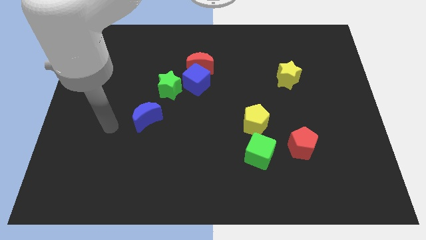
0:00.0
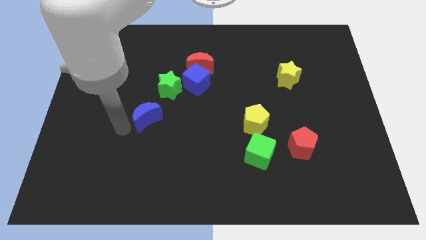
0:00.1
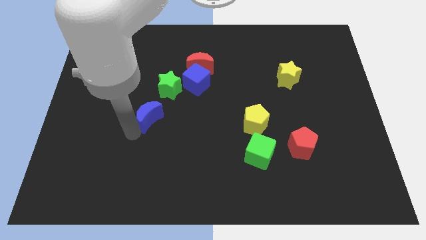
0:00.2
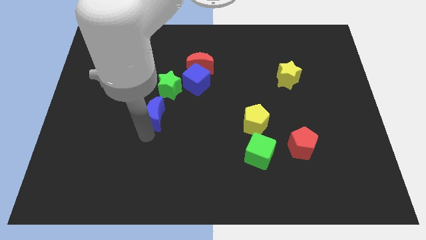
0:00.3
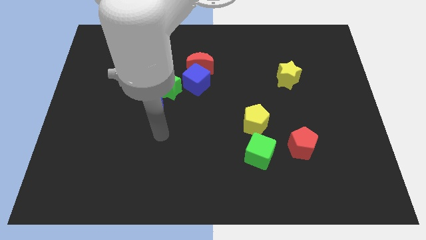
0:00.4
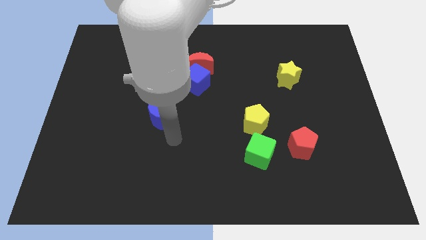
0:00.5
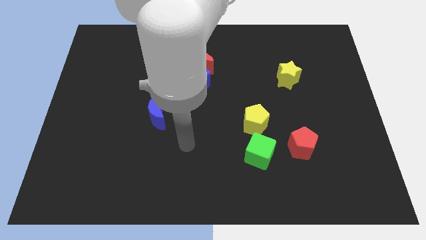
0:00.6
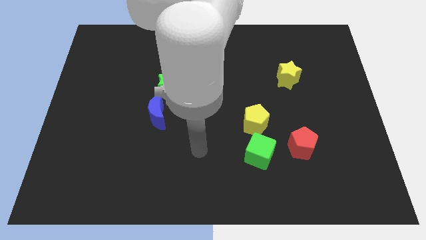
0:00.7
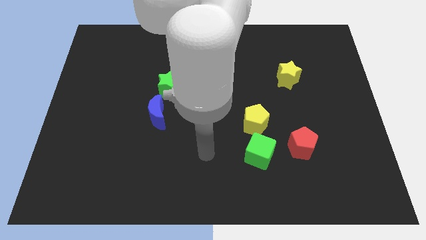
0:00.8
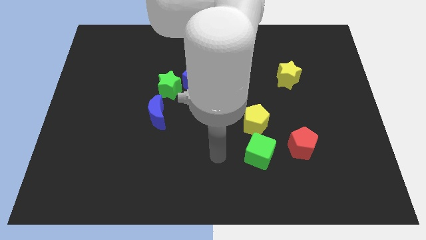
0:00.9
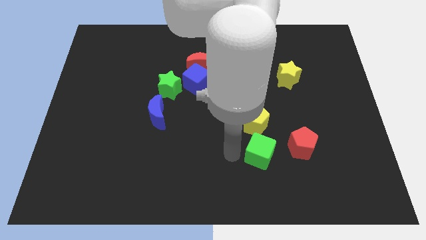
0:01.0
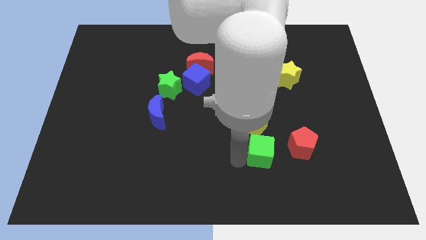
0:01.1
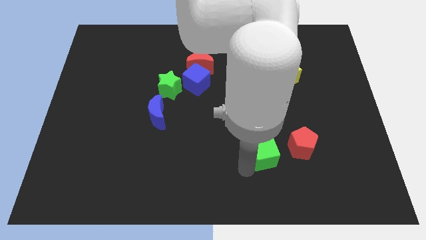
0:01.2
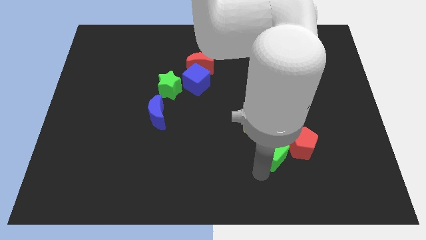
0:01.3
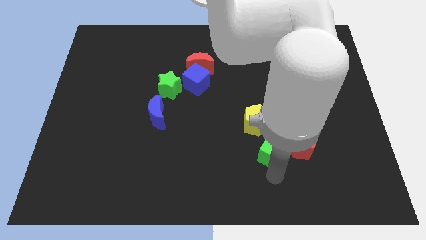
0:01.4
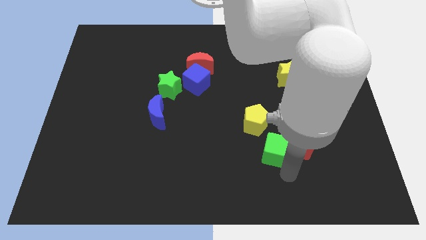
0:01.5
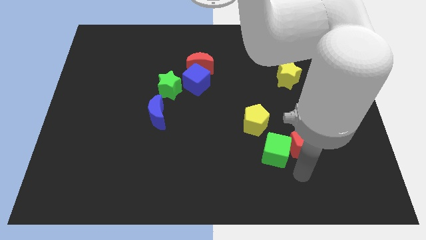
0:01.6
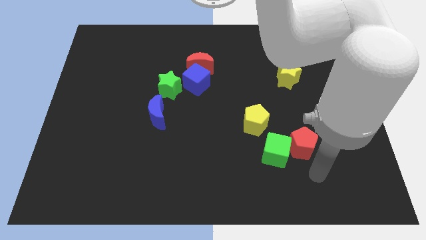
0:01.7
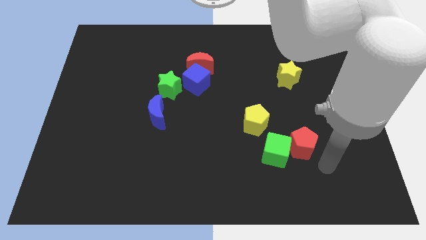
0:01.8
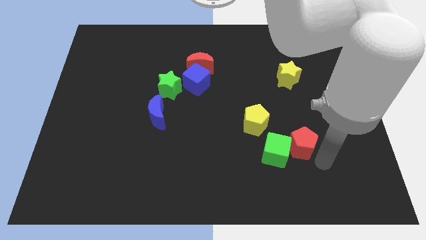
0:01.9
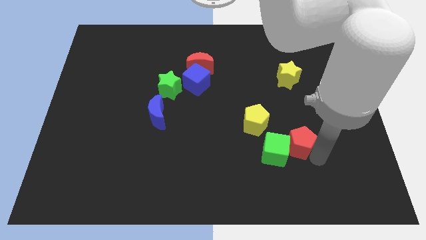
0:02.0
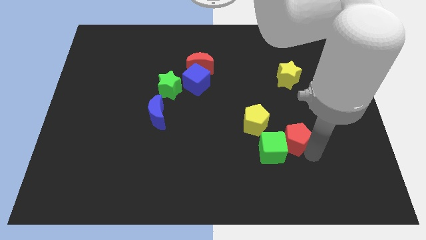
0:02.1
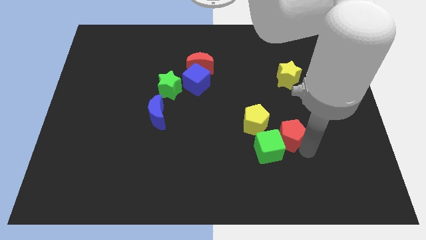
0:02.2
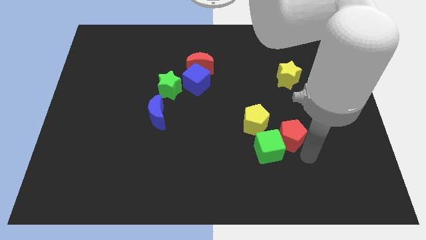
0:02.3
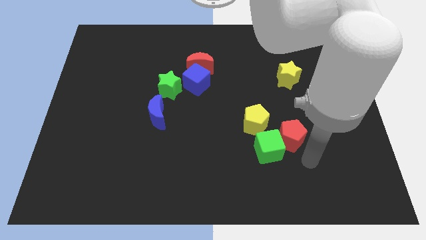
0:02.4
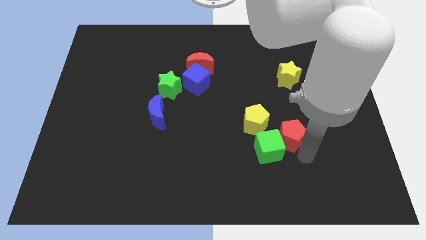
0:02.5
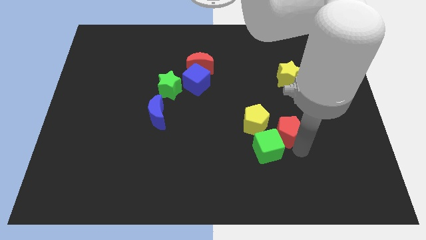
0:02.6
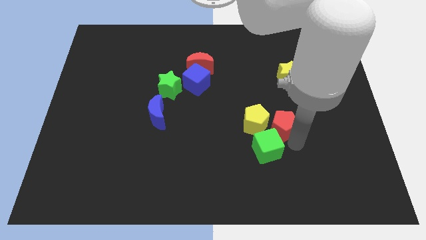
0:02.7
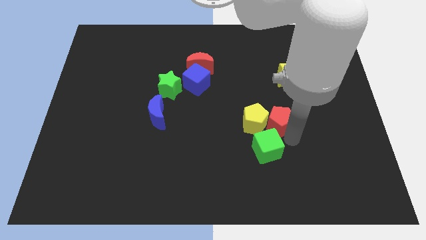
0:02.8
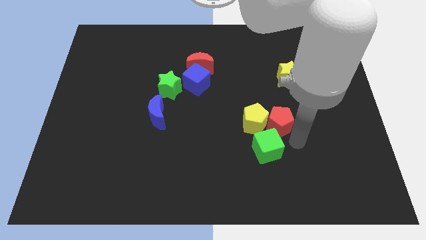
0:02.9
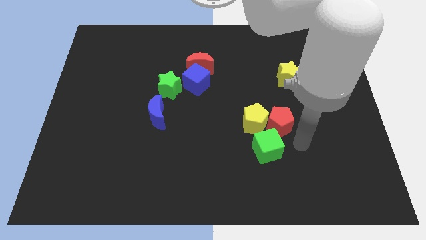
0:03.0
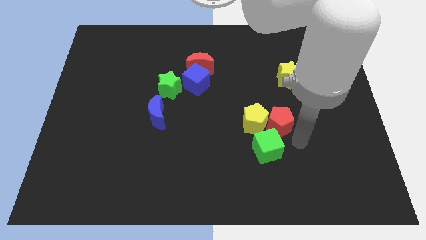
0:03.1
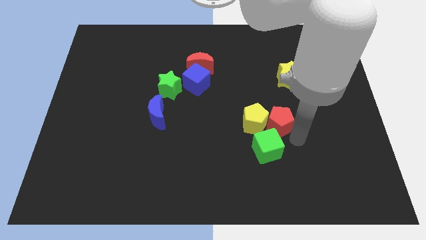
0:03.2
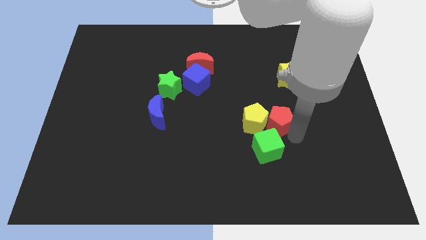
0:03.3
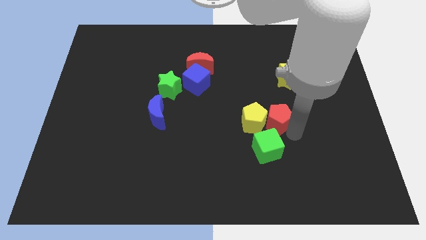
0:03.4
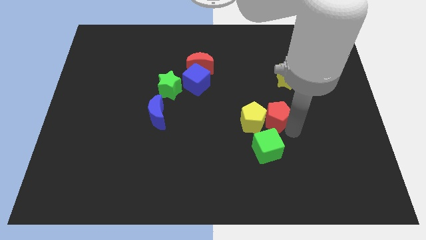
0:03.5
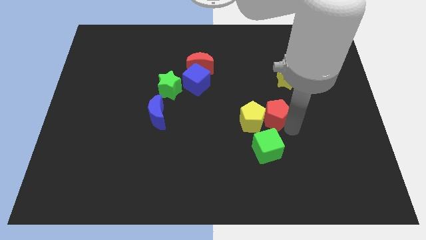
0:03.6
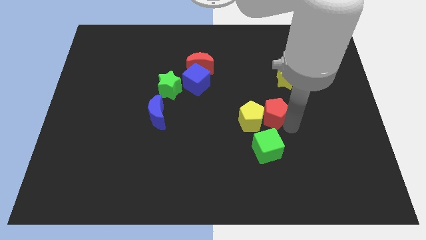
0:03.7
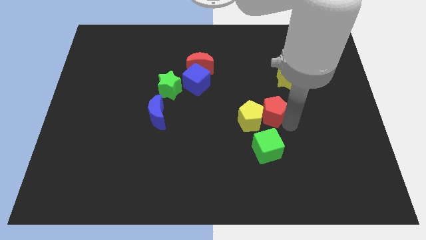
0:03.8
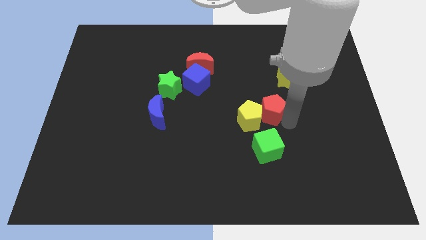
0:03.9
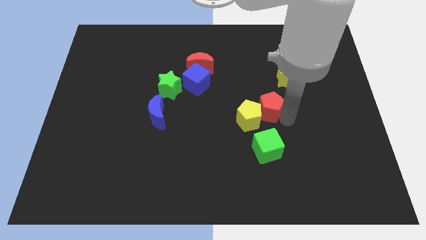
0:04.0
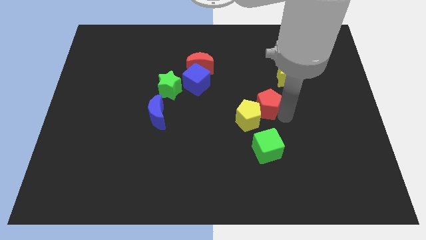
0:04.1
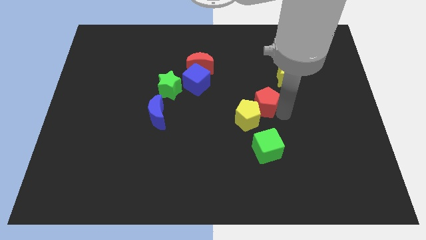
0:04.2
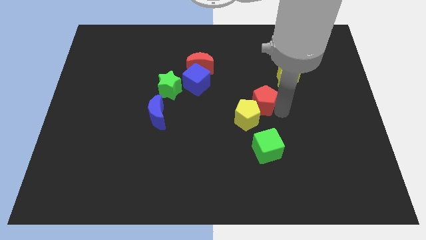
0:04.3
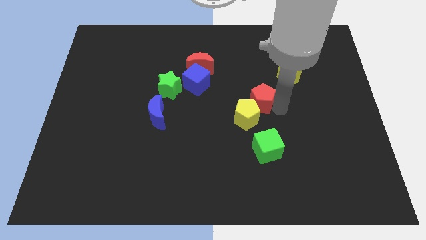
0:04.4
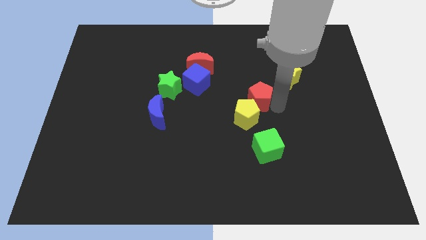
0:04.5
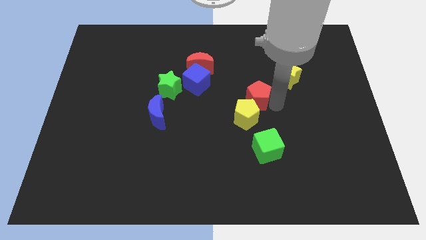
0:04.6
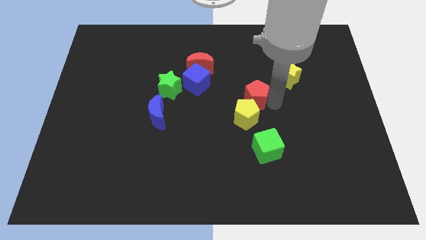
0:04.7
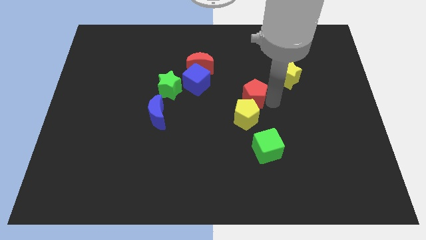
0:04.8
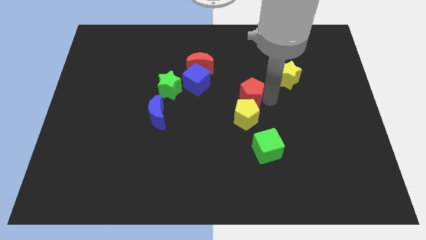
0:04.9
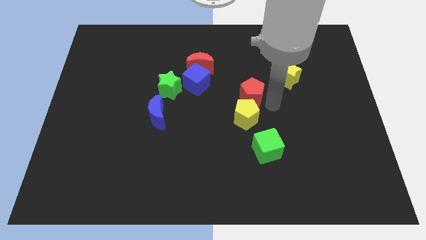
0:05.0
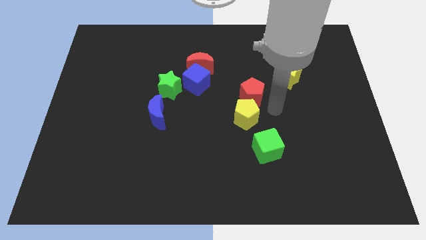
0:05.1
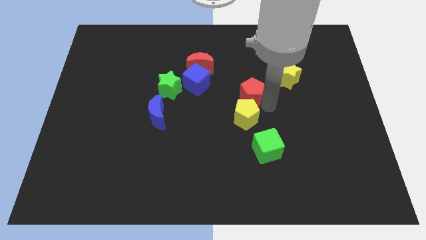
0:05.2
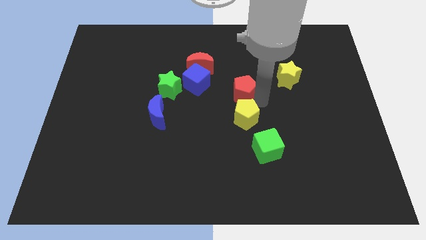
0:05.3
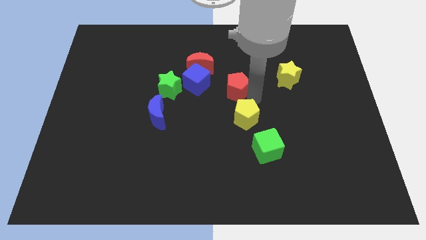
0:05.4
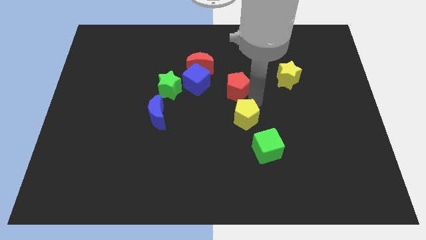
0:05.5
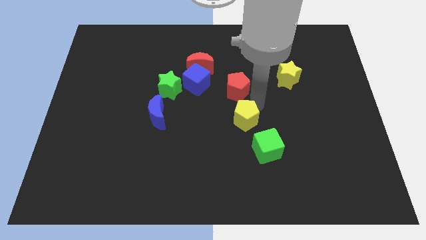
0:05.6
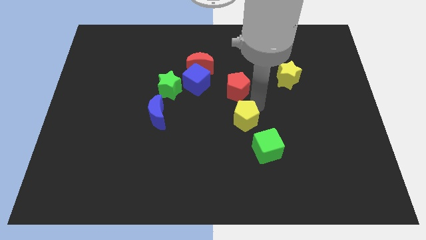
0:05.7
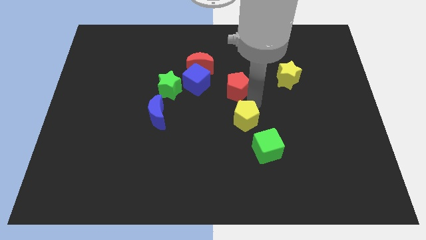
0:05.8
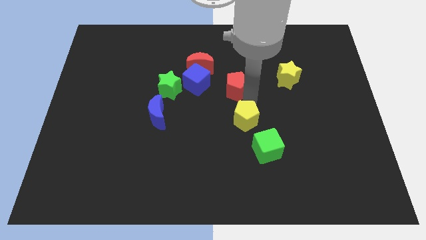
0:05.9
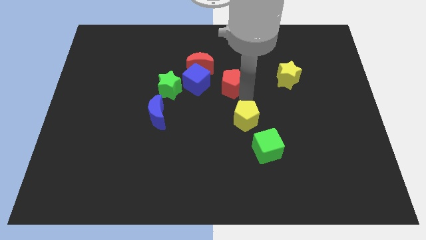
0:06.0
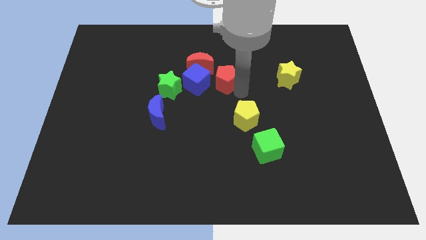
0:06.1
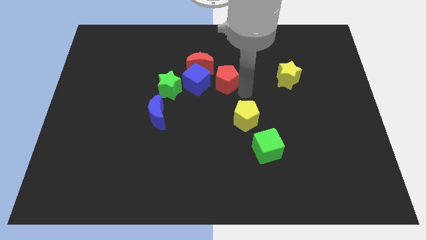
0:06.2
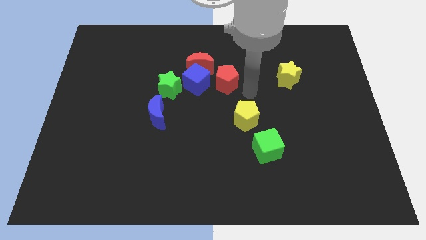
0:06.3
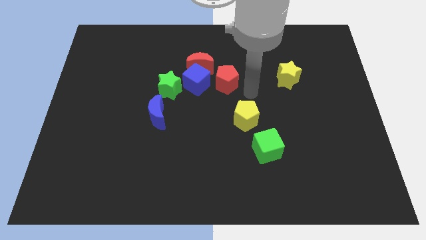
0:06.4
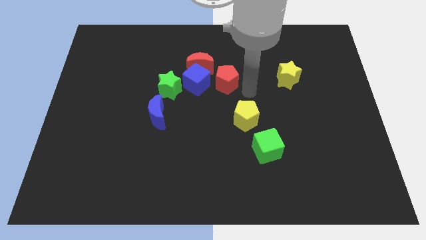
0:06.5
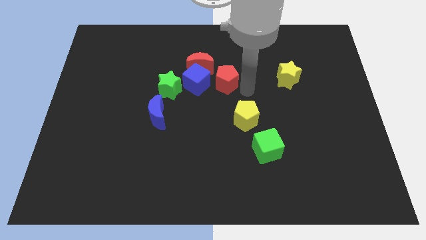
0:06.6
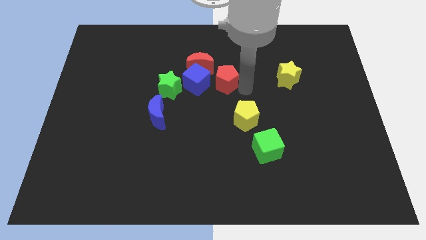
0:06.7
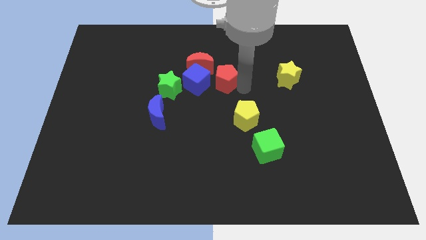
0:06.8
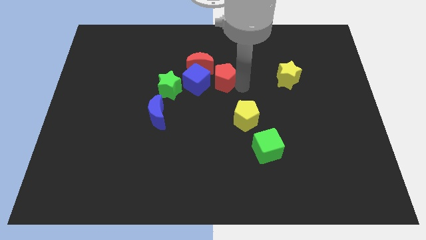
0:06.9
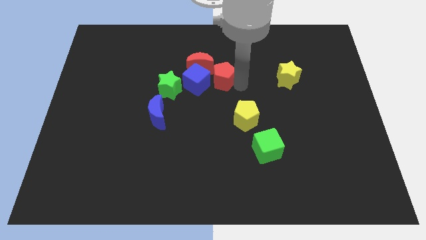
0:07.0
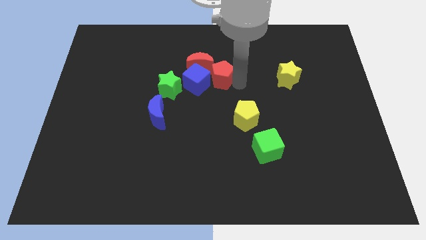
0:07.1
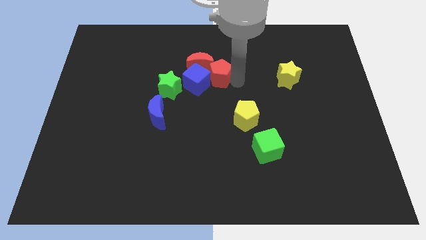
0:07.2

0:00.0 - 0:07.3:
move the red pentagon to the red moon
